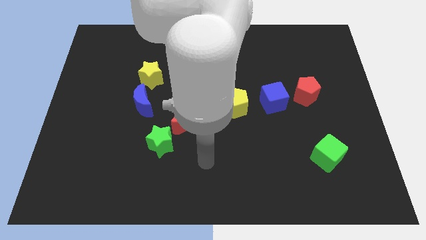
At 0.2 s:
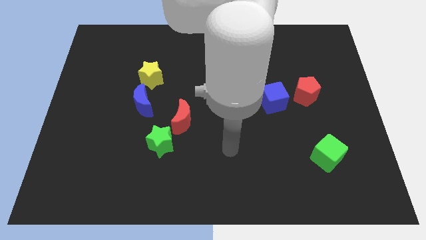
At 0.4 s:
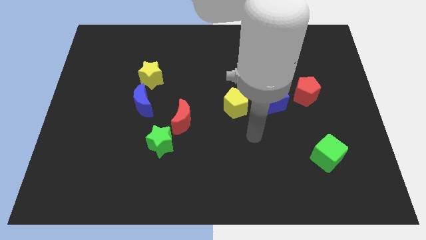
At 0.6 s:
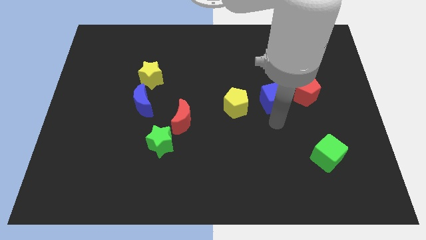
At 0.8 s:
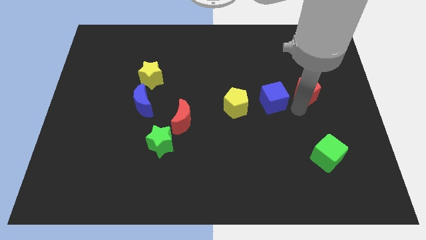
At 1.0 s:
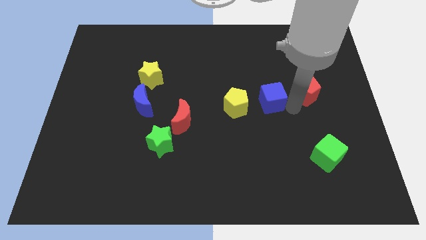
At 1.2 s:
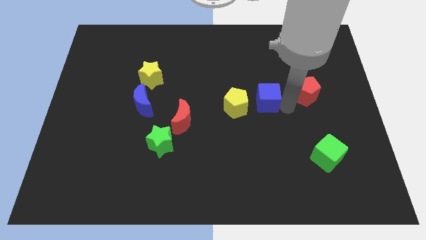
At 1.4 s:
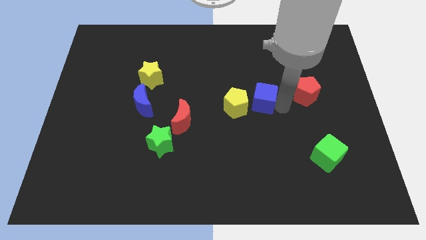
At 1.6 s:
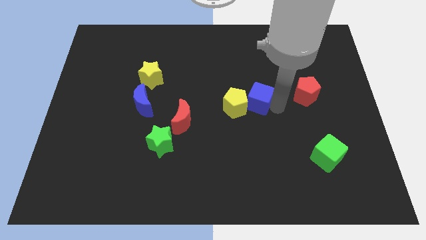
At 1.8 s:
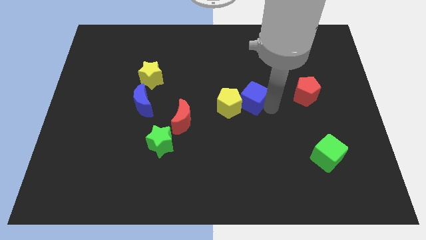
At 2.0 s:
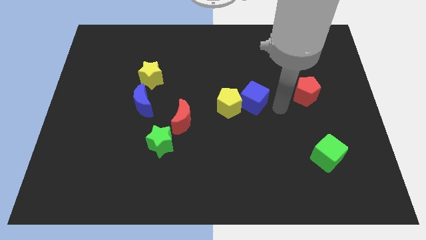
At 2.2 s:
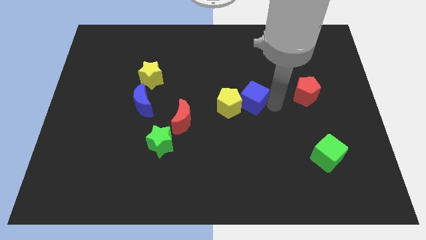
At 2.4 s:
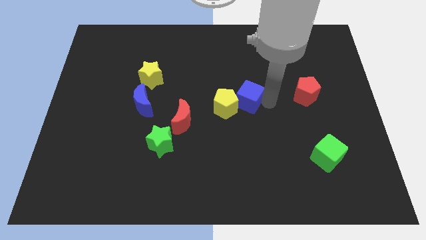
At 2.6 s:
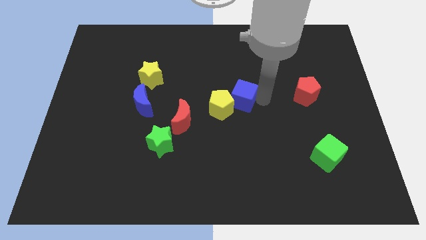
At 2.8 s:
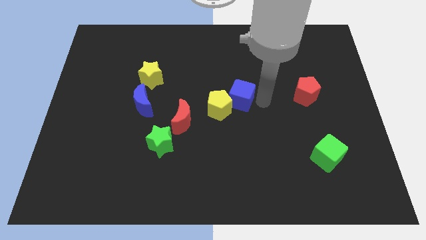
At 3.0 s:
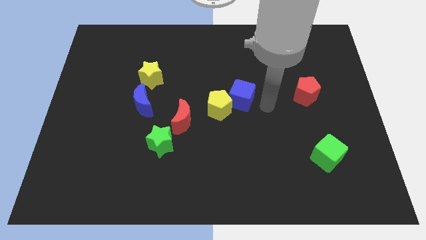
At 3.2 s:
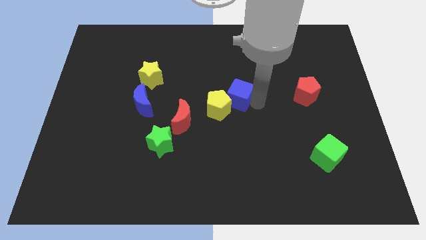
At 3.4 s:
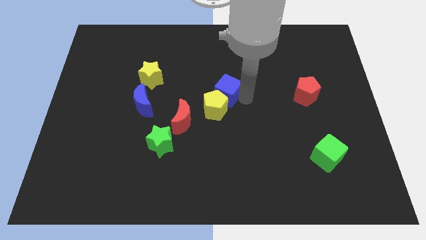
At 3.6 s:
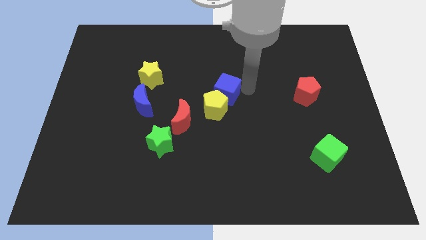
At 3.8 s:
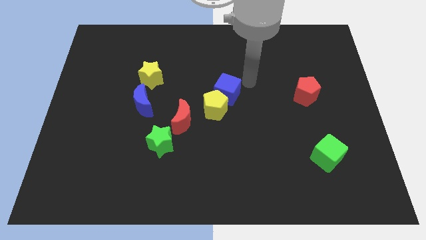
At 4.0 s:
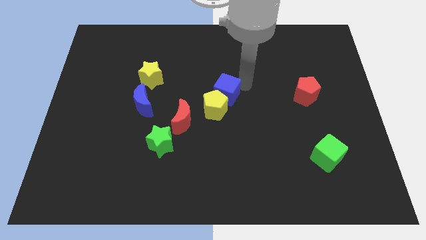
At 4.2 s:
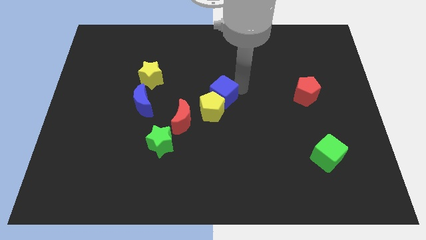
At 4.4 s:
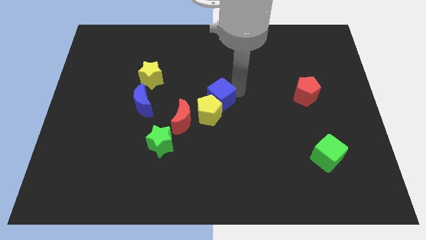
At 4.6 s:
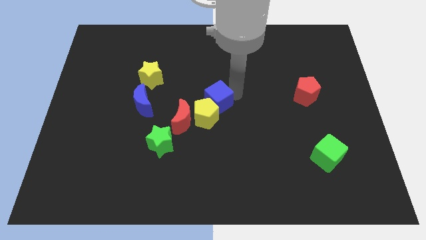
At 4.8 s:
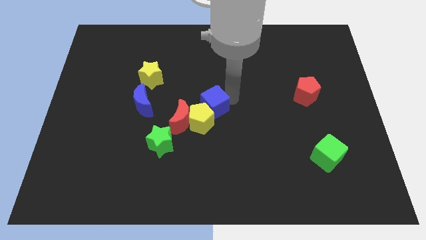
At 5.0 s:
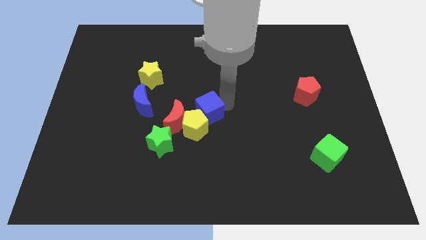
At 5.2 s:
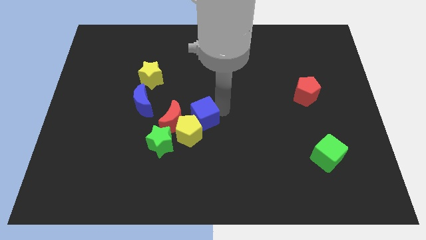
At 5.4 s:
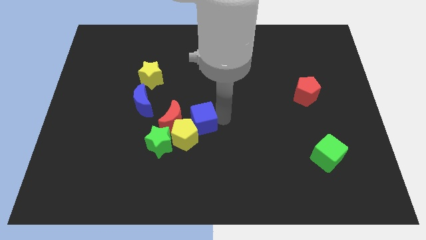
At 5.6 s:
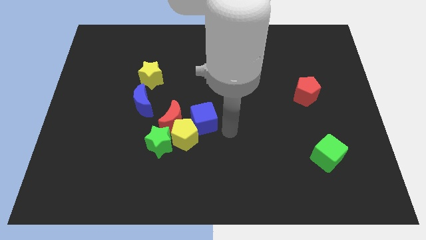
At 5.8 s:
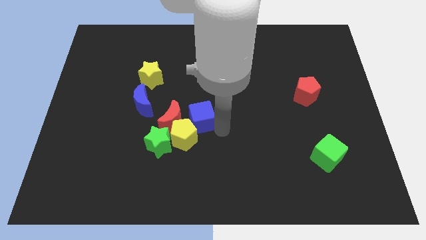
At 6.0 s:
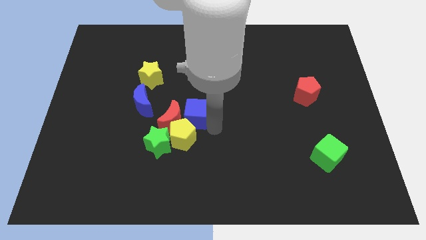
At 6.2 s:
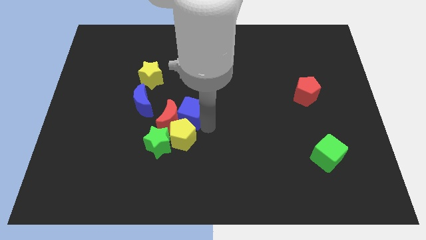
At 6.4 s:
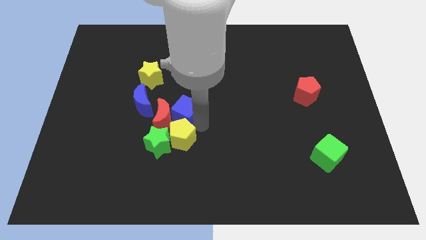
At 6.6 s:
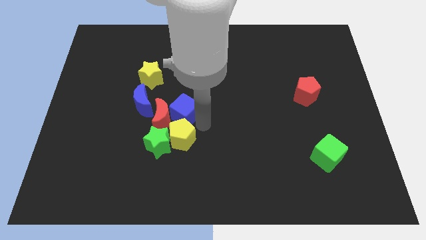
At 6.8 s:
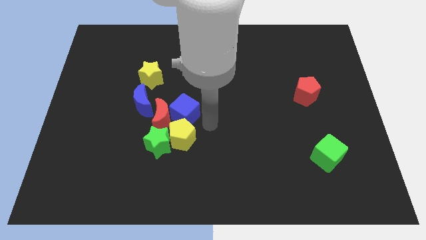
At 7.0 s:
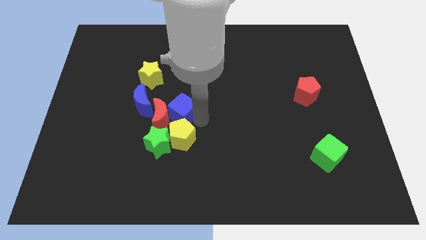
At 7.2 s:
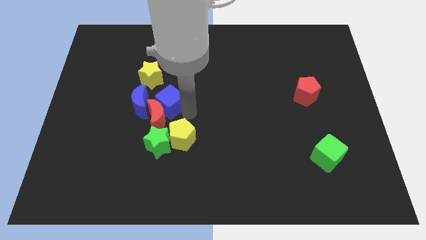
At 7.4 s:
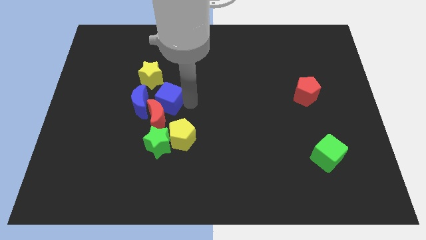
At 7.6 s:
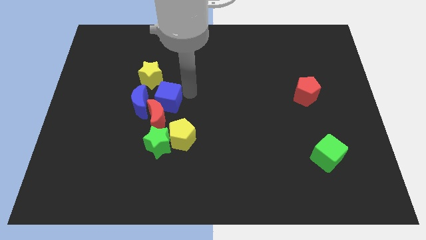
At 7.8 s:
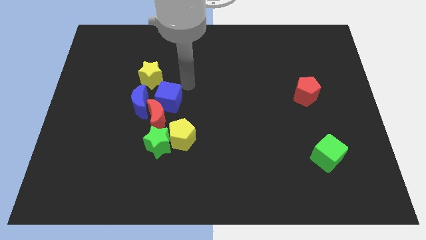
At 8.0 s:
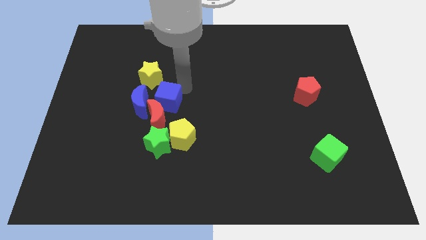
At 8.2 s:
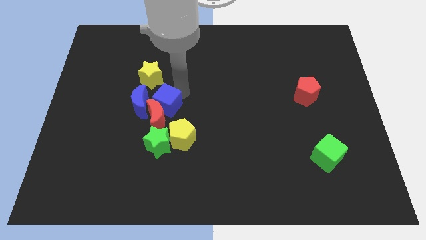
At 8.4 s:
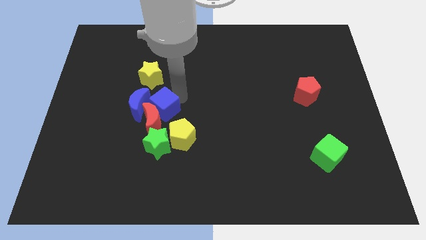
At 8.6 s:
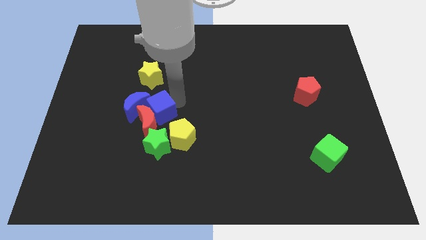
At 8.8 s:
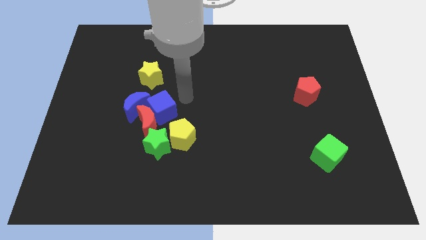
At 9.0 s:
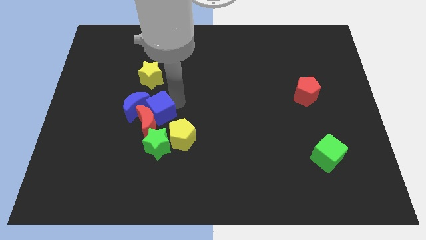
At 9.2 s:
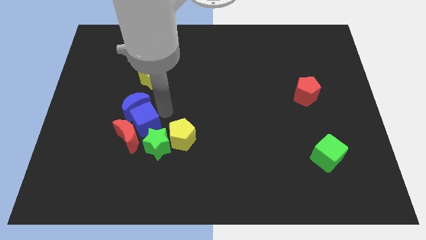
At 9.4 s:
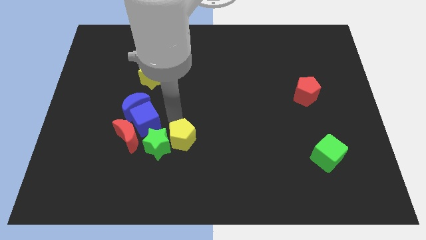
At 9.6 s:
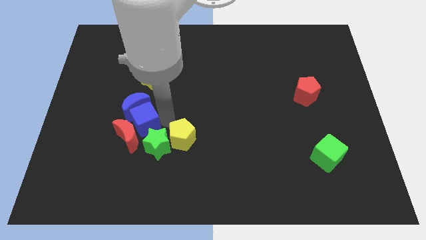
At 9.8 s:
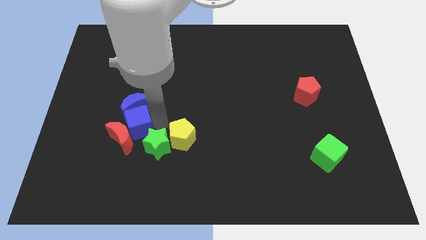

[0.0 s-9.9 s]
slide the blue cube diagonally down and to the left of the blue moon

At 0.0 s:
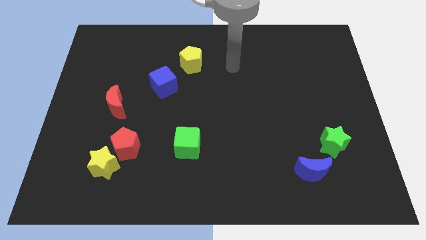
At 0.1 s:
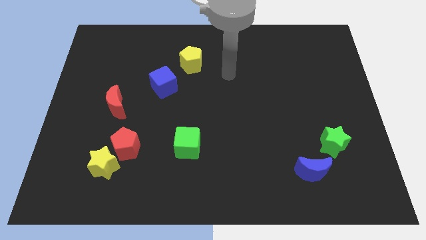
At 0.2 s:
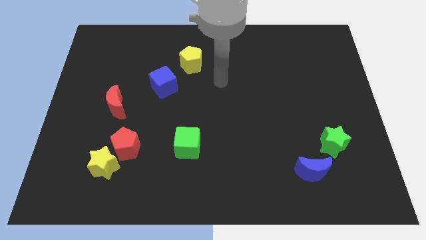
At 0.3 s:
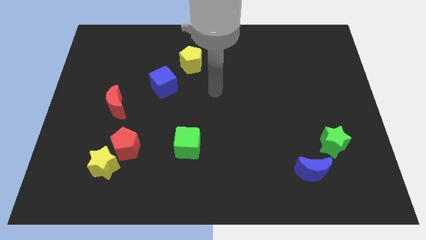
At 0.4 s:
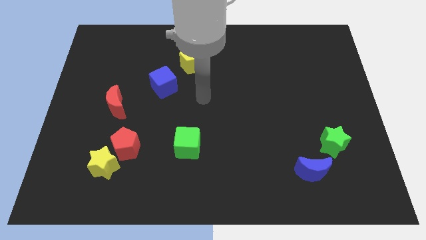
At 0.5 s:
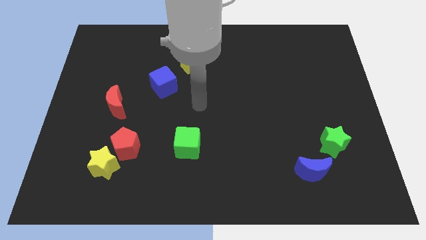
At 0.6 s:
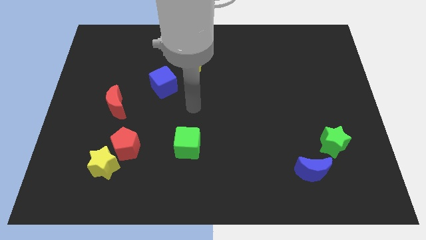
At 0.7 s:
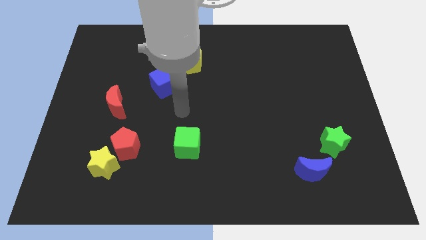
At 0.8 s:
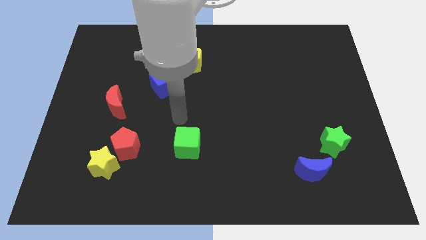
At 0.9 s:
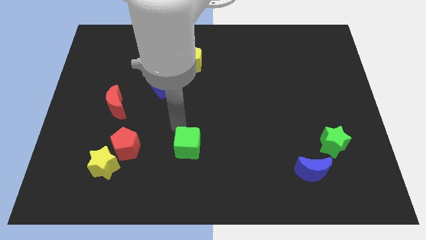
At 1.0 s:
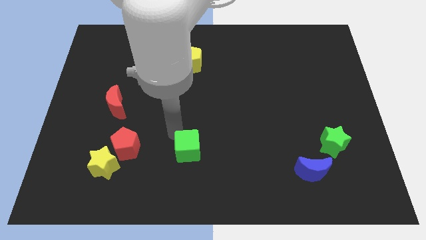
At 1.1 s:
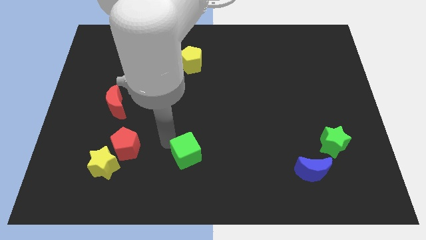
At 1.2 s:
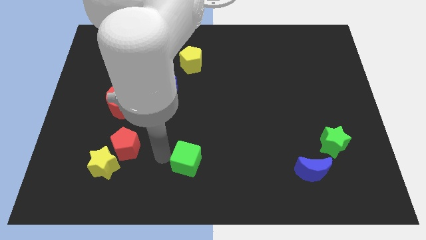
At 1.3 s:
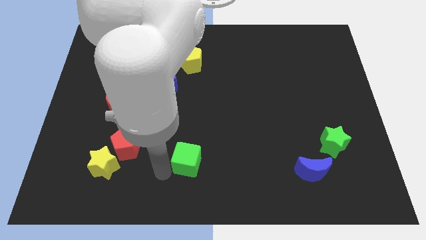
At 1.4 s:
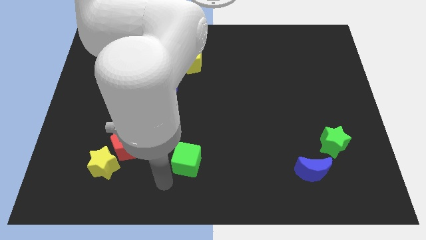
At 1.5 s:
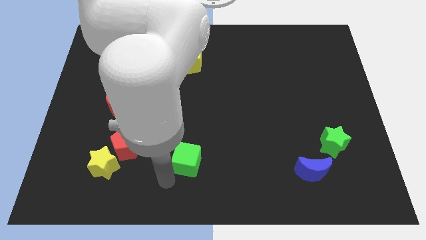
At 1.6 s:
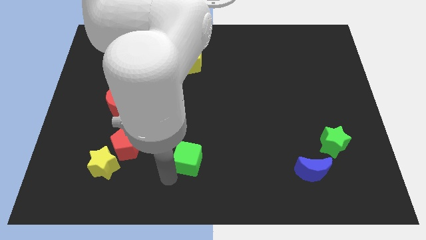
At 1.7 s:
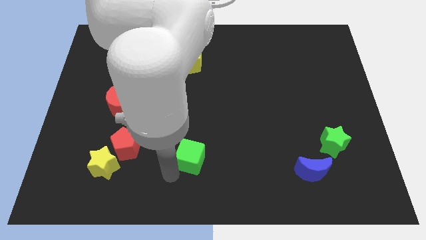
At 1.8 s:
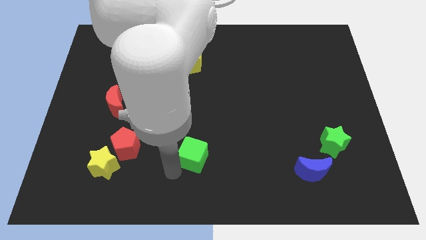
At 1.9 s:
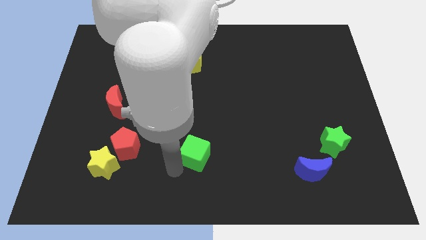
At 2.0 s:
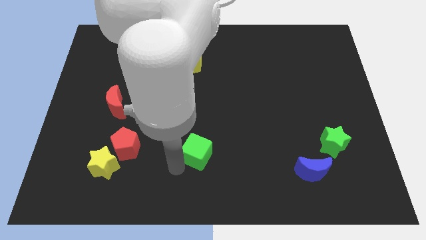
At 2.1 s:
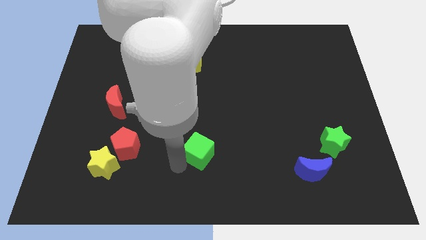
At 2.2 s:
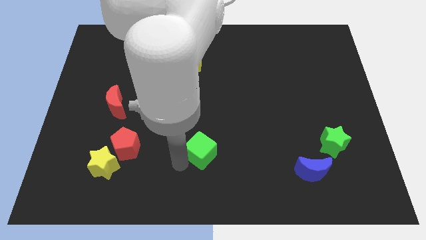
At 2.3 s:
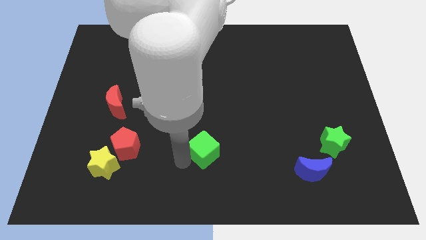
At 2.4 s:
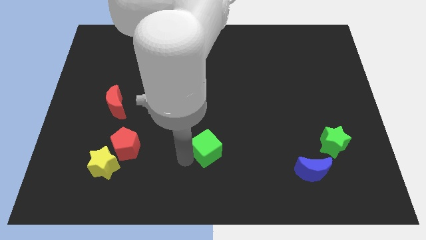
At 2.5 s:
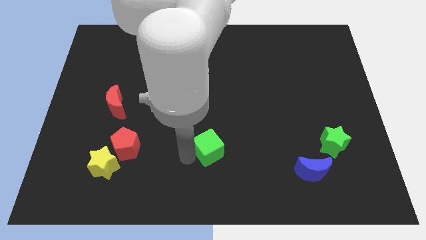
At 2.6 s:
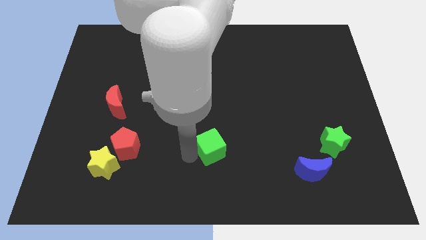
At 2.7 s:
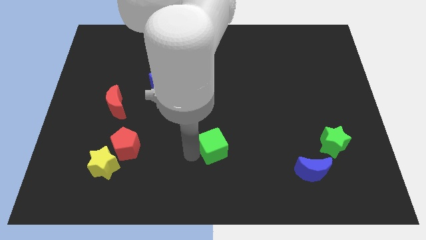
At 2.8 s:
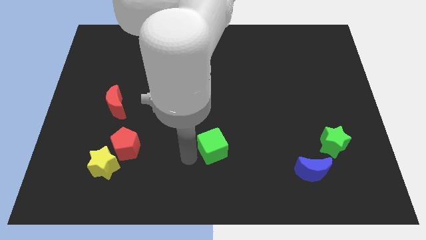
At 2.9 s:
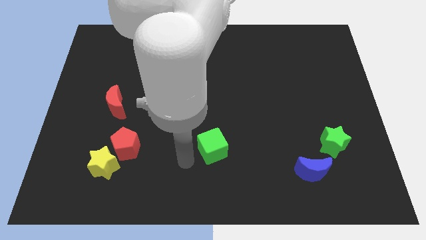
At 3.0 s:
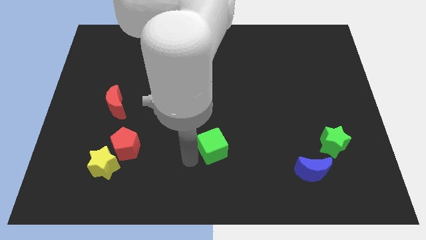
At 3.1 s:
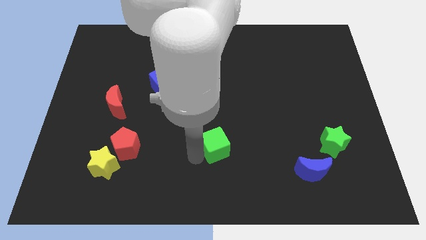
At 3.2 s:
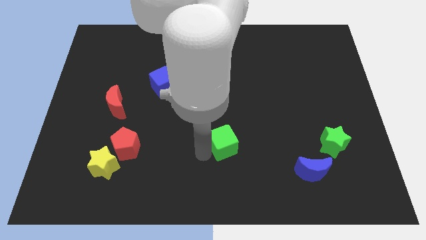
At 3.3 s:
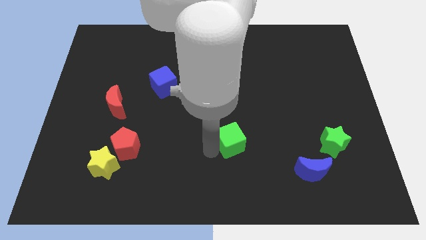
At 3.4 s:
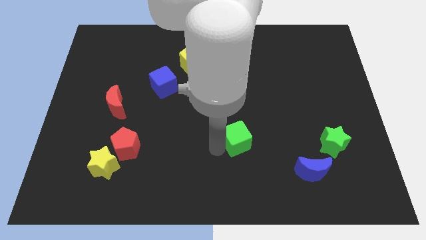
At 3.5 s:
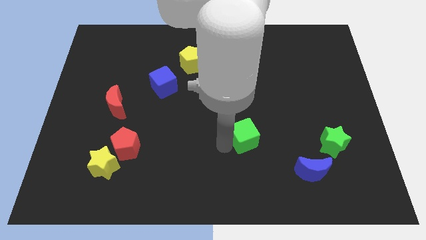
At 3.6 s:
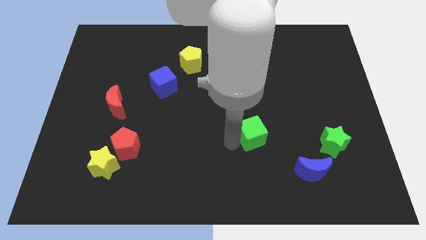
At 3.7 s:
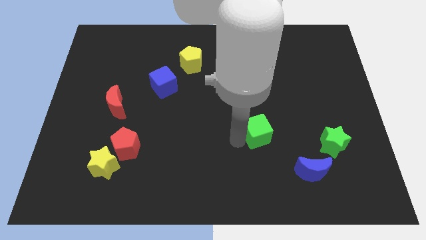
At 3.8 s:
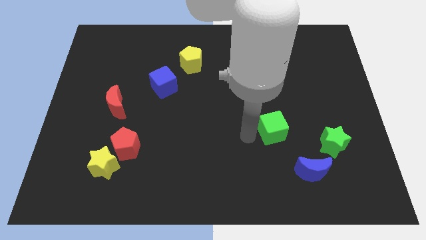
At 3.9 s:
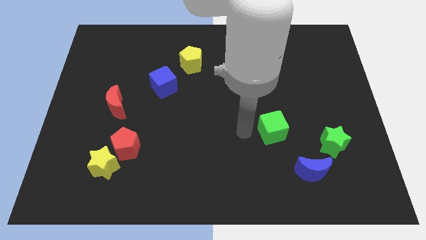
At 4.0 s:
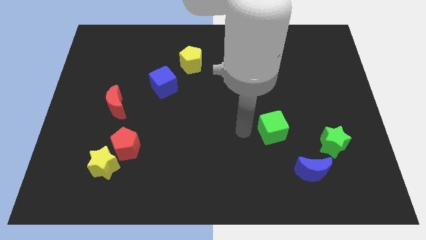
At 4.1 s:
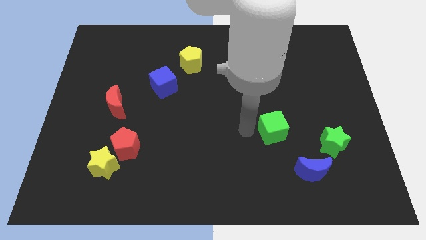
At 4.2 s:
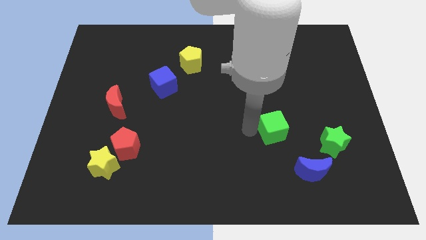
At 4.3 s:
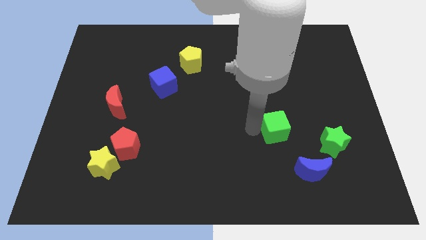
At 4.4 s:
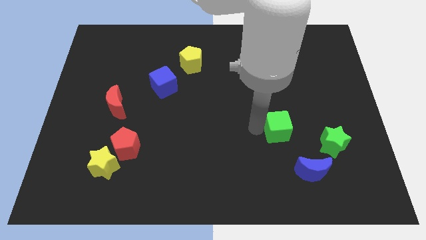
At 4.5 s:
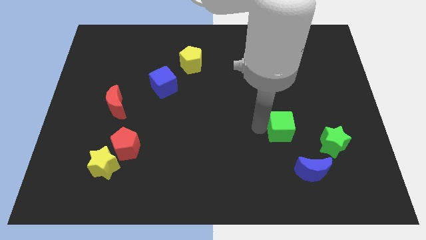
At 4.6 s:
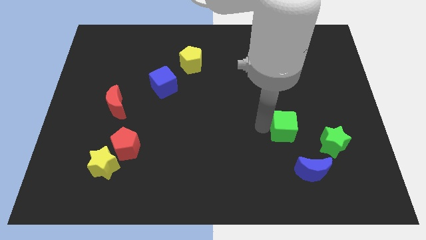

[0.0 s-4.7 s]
push the green cube to the top of the blue moon
